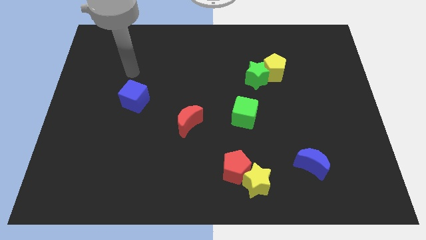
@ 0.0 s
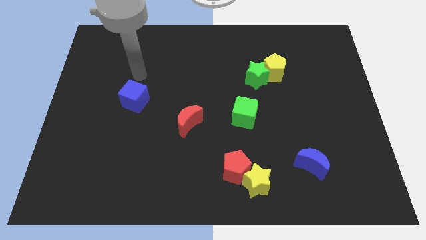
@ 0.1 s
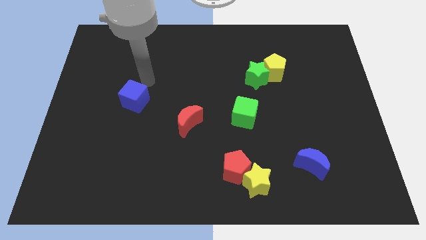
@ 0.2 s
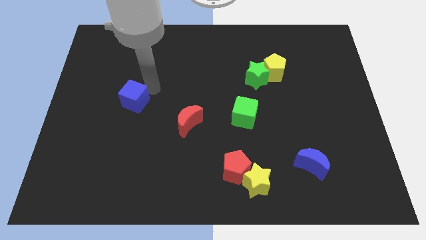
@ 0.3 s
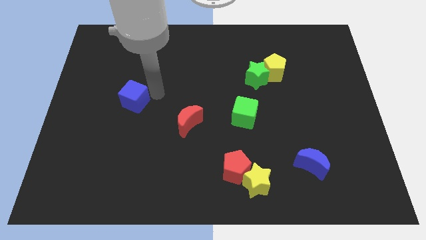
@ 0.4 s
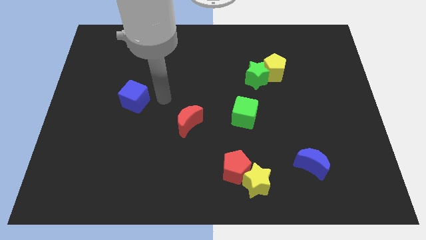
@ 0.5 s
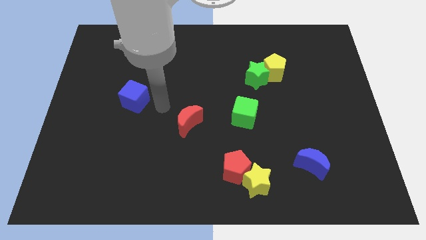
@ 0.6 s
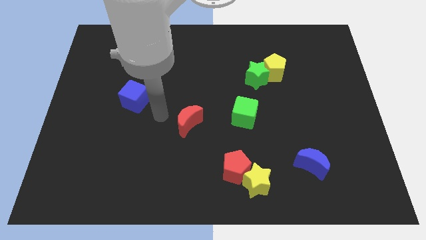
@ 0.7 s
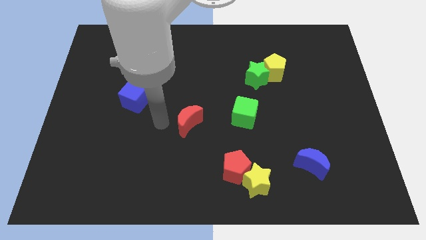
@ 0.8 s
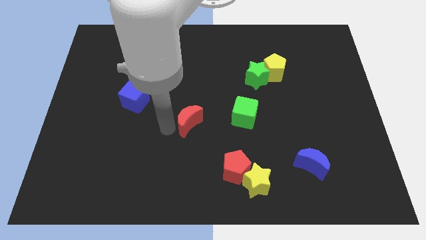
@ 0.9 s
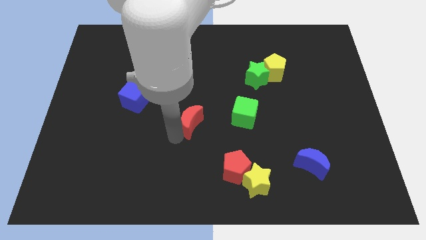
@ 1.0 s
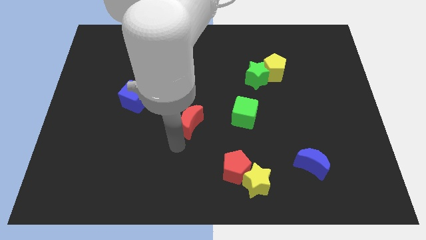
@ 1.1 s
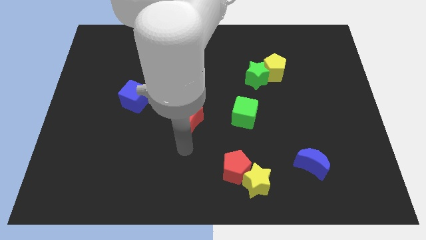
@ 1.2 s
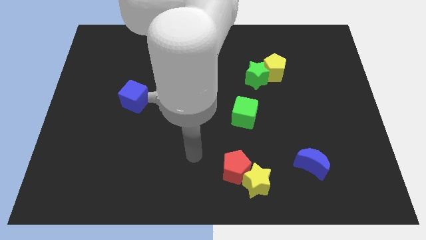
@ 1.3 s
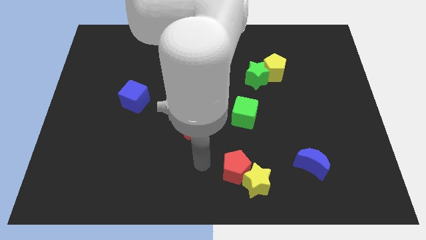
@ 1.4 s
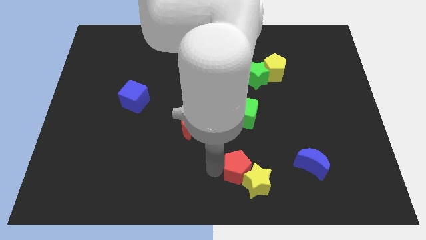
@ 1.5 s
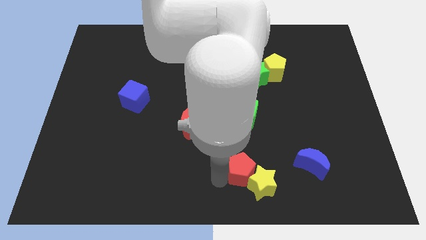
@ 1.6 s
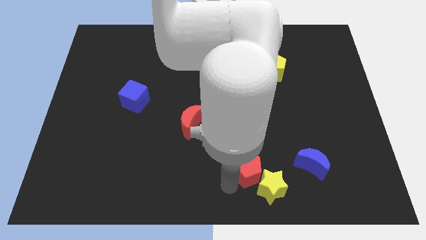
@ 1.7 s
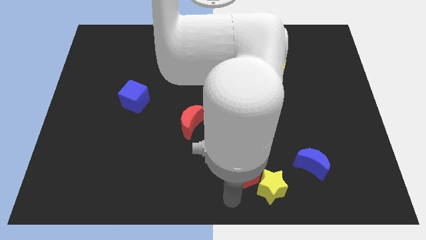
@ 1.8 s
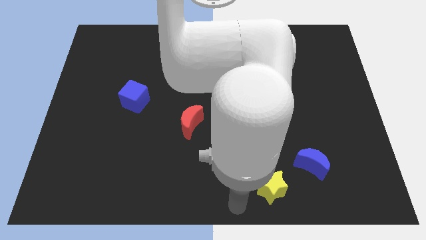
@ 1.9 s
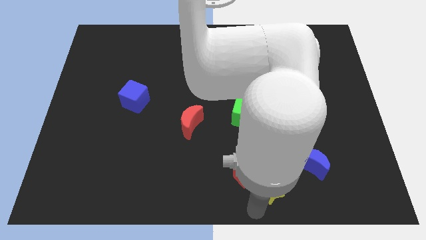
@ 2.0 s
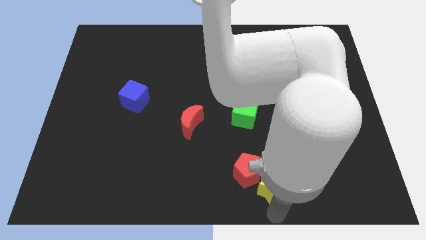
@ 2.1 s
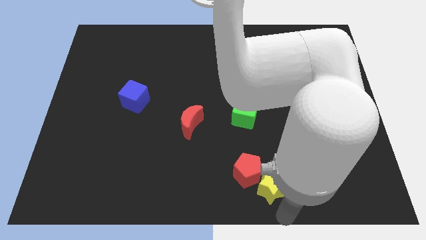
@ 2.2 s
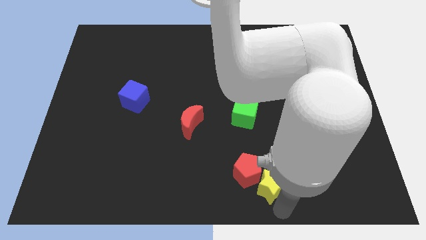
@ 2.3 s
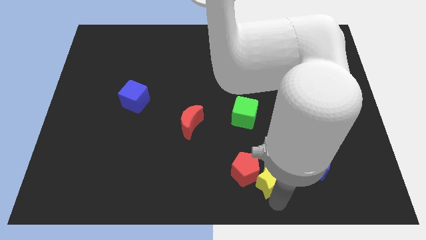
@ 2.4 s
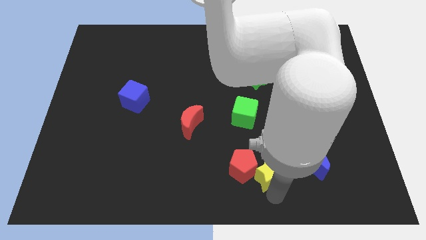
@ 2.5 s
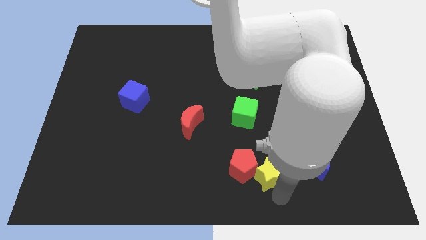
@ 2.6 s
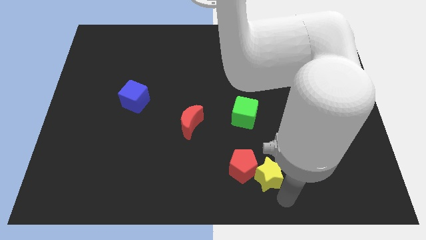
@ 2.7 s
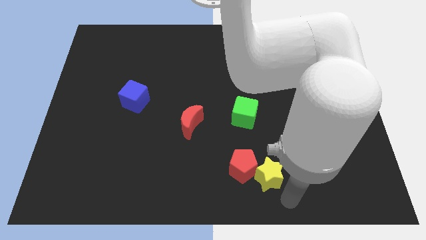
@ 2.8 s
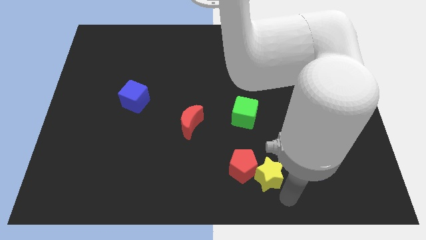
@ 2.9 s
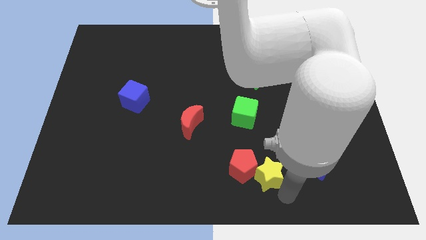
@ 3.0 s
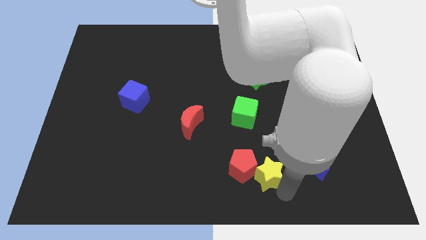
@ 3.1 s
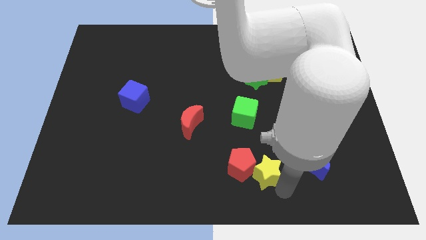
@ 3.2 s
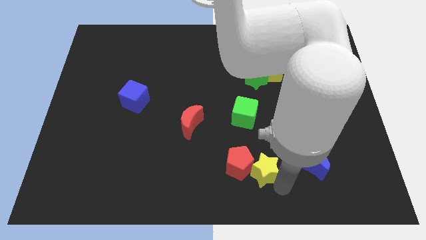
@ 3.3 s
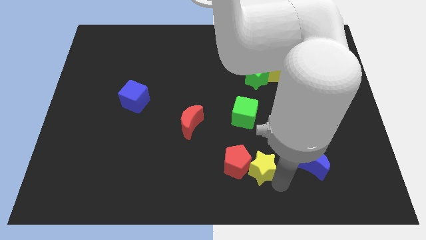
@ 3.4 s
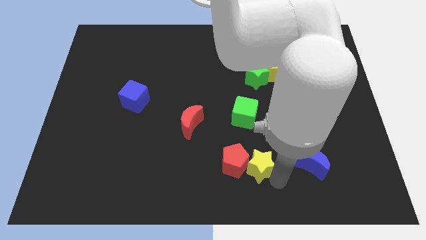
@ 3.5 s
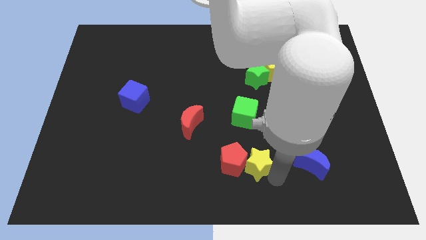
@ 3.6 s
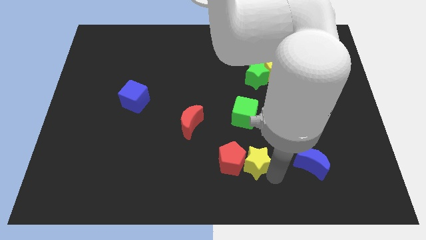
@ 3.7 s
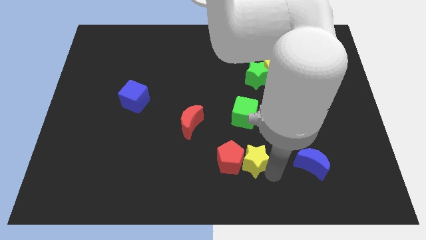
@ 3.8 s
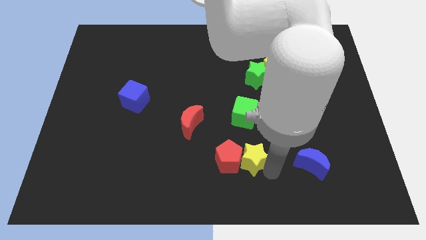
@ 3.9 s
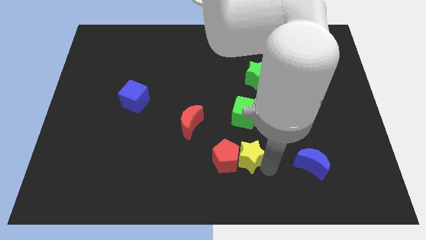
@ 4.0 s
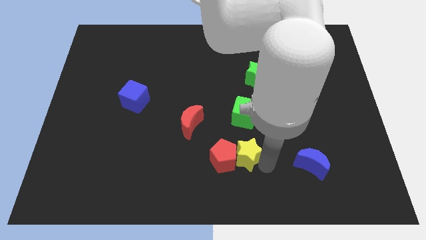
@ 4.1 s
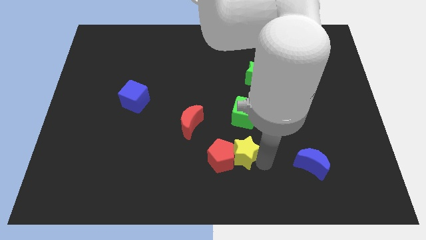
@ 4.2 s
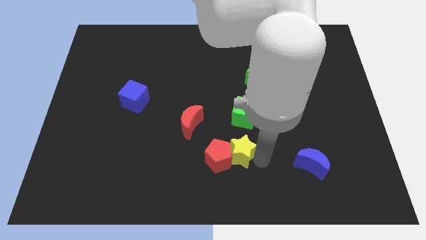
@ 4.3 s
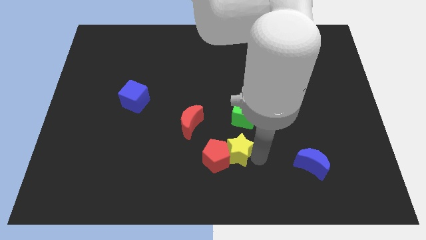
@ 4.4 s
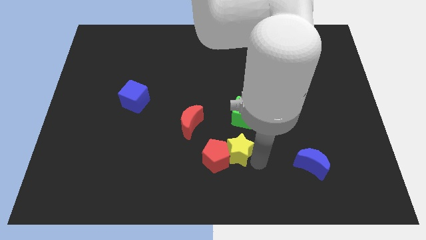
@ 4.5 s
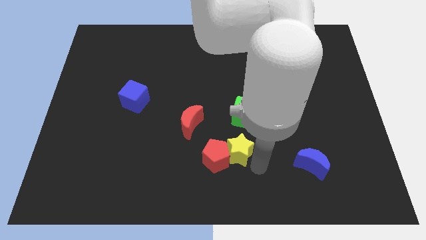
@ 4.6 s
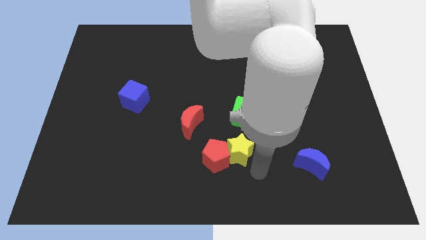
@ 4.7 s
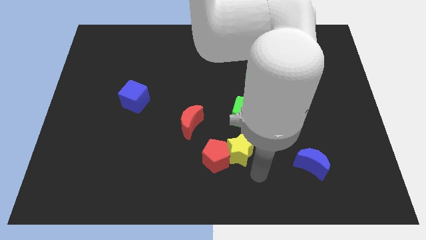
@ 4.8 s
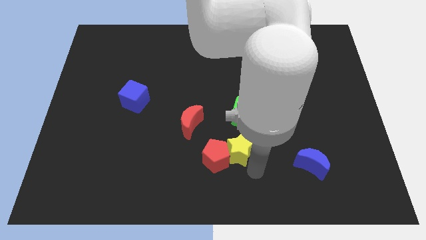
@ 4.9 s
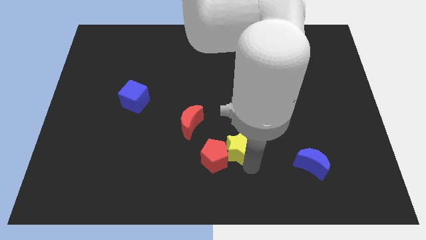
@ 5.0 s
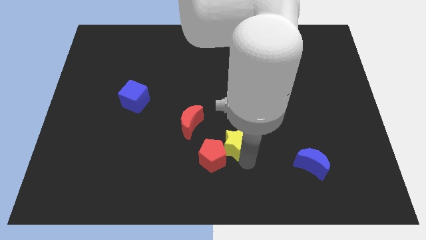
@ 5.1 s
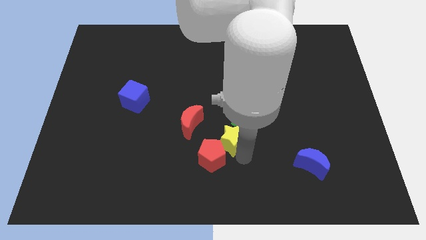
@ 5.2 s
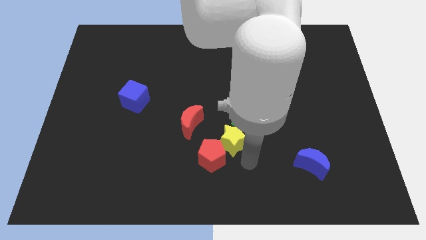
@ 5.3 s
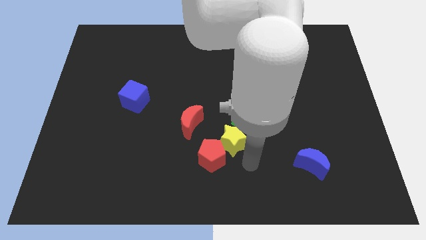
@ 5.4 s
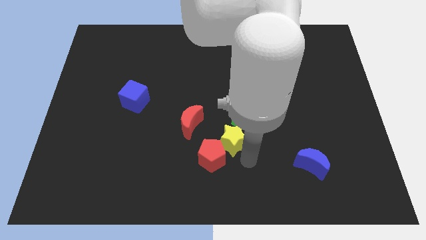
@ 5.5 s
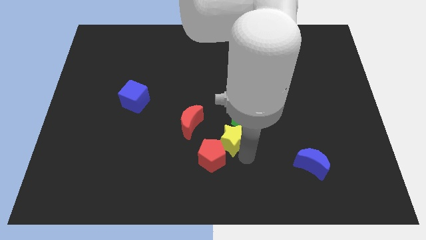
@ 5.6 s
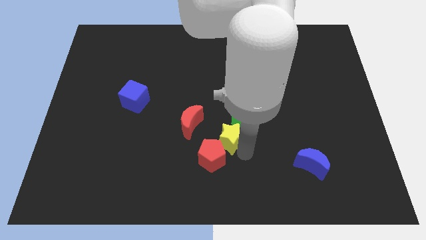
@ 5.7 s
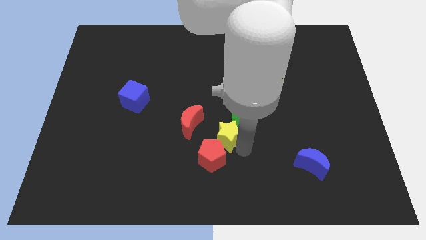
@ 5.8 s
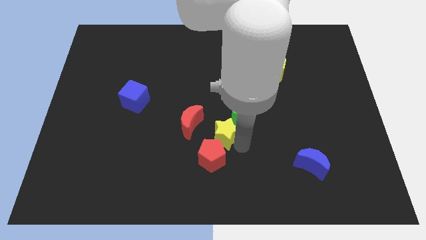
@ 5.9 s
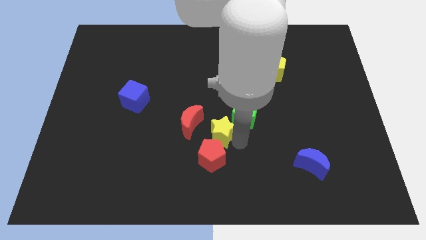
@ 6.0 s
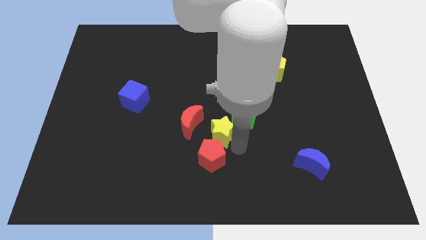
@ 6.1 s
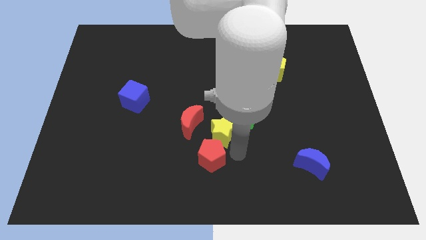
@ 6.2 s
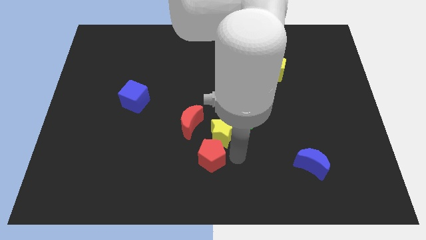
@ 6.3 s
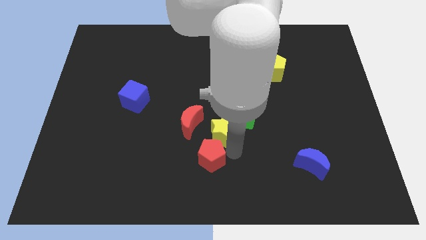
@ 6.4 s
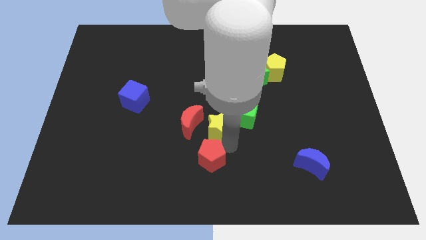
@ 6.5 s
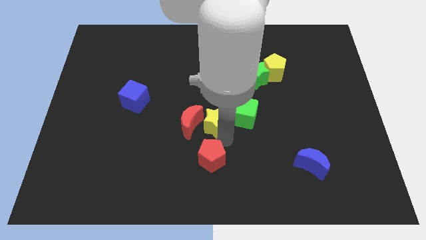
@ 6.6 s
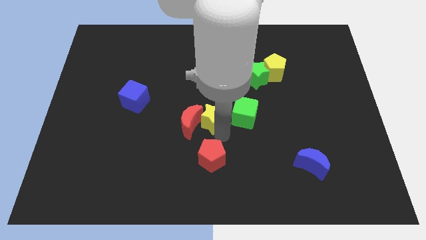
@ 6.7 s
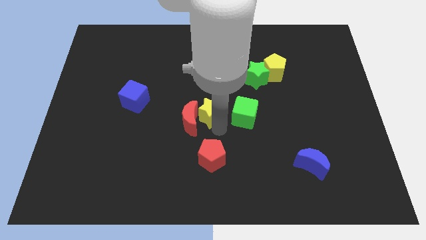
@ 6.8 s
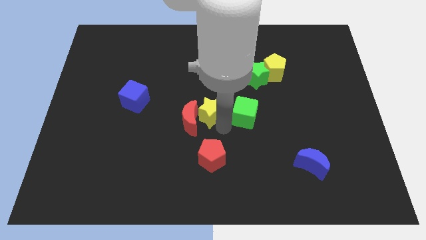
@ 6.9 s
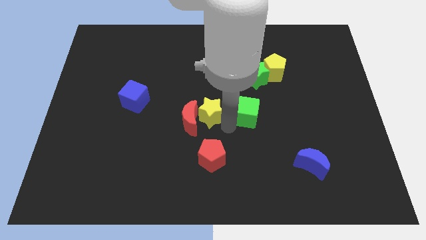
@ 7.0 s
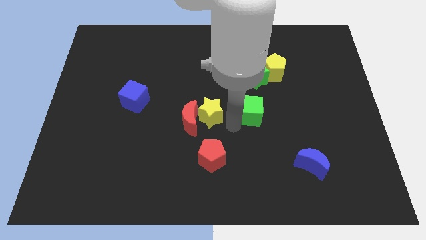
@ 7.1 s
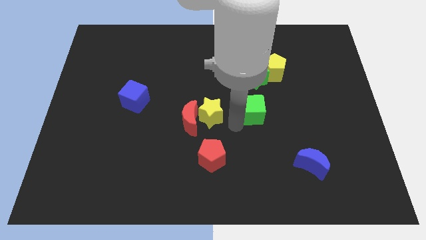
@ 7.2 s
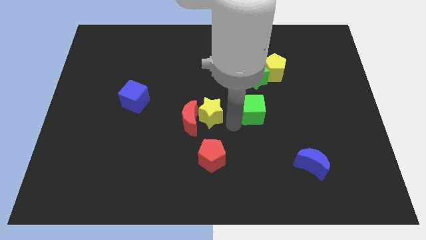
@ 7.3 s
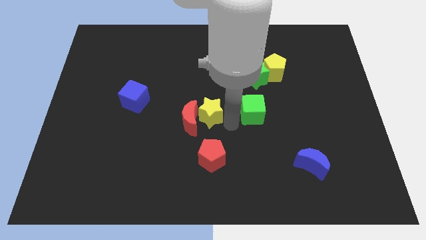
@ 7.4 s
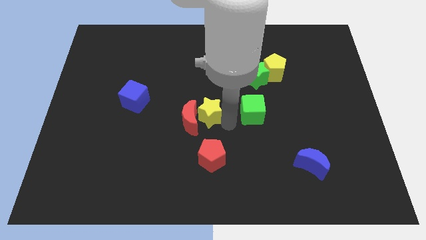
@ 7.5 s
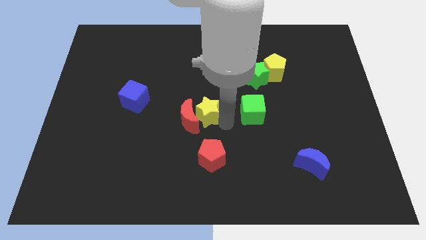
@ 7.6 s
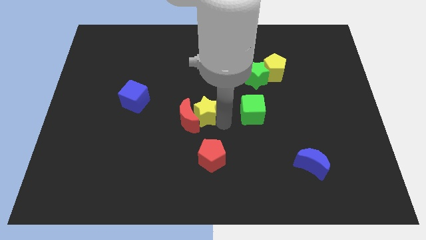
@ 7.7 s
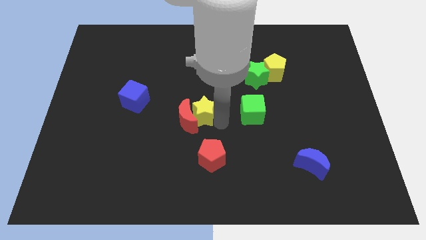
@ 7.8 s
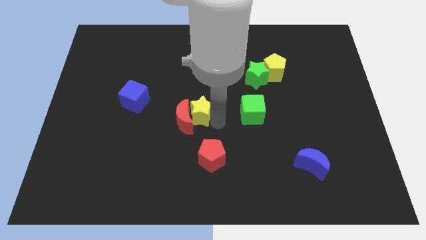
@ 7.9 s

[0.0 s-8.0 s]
move the yellow star upwards and then left
